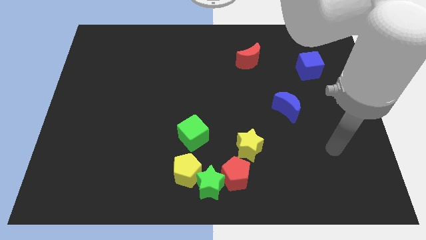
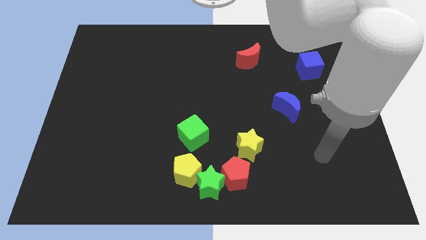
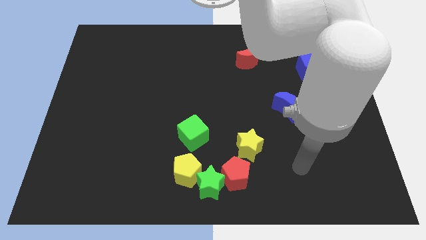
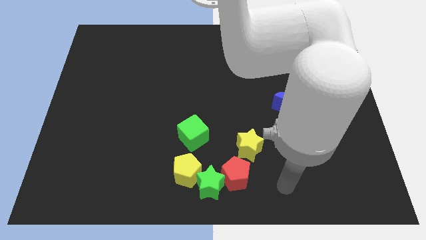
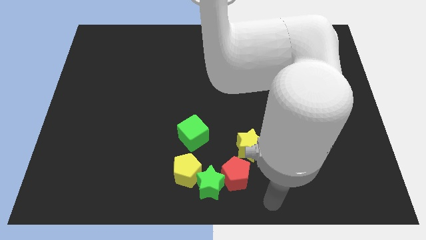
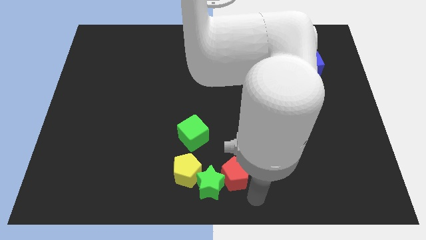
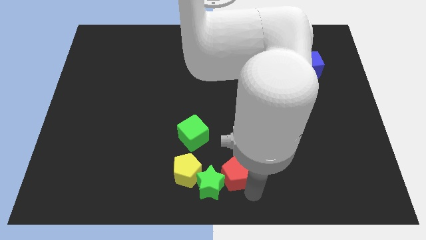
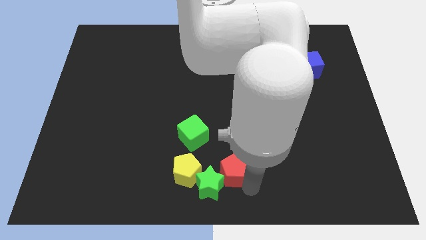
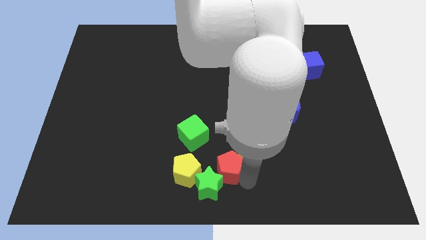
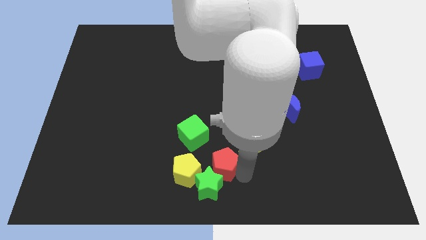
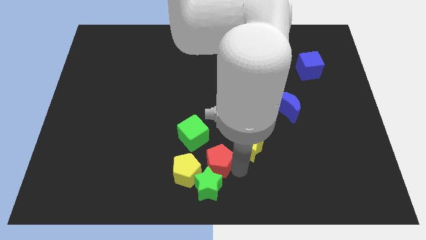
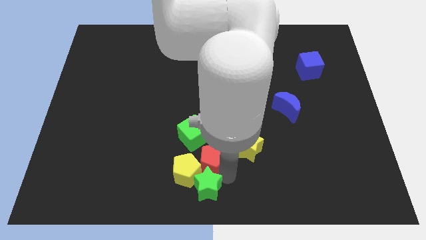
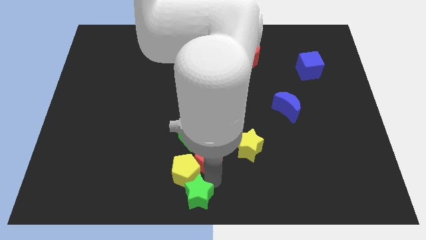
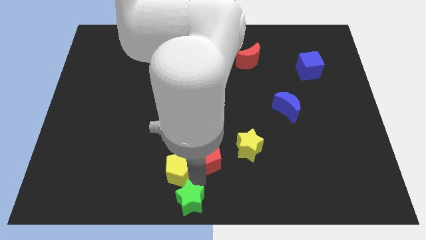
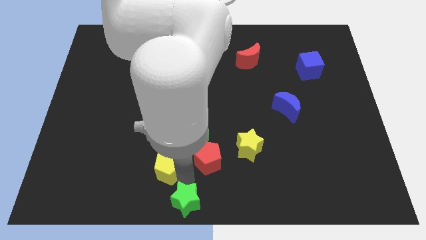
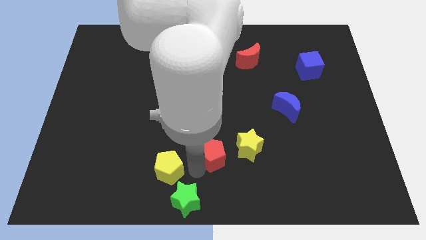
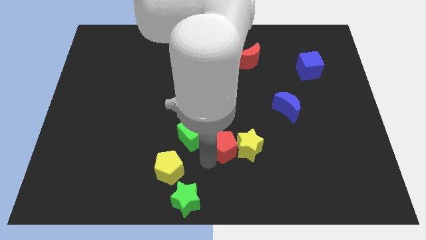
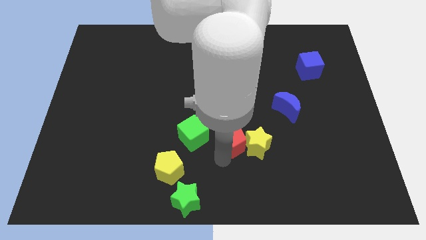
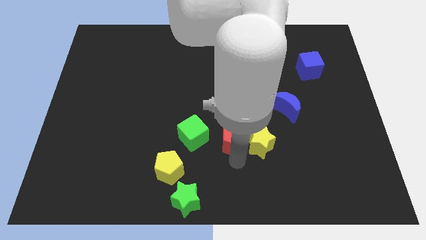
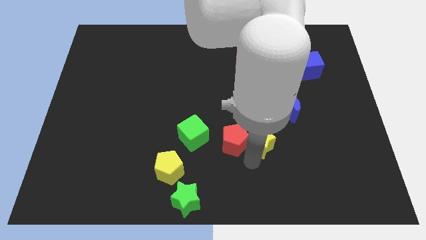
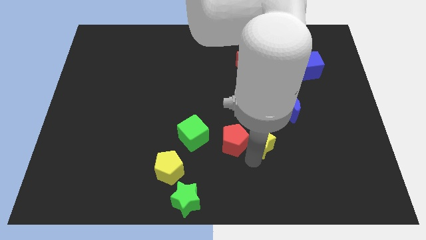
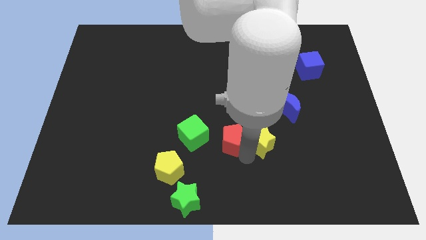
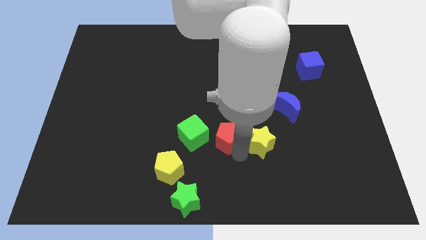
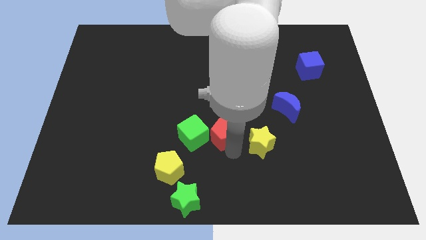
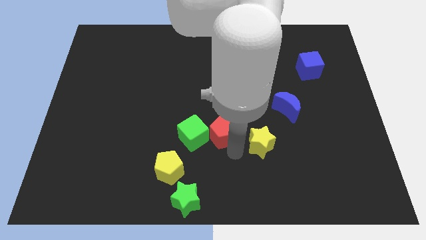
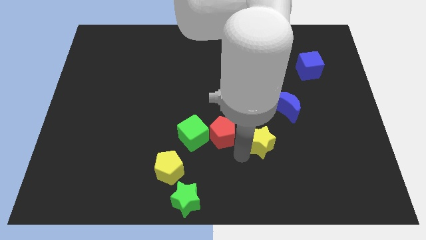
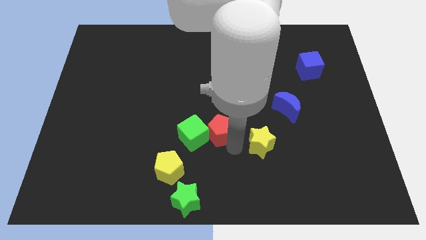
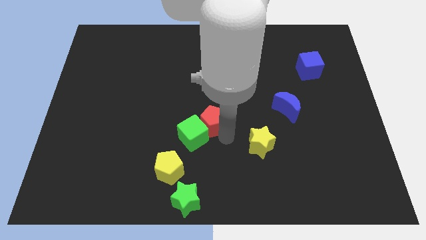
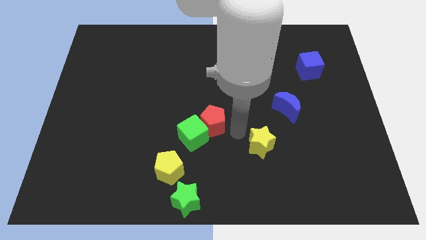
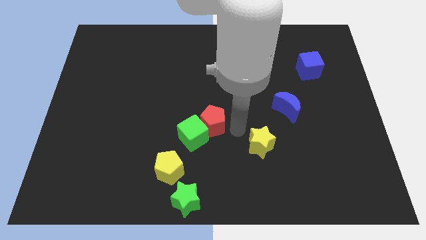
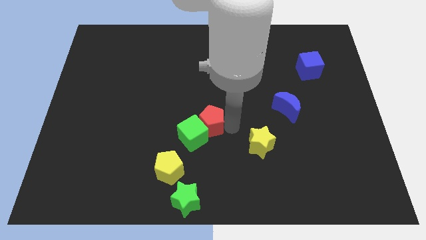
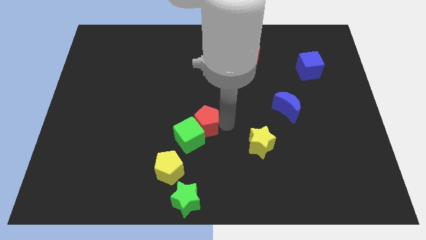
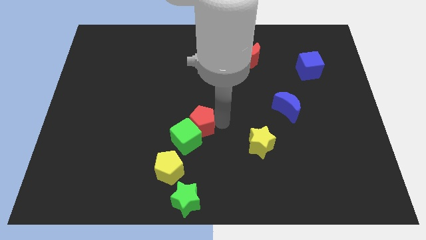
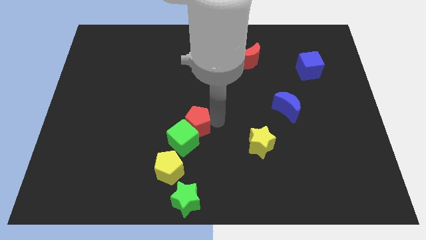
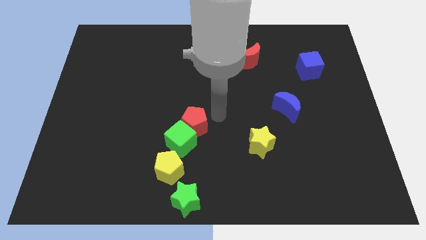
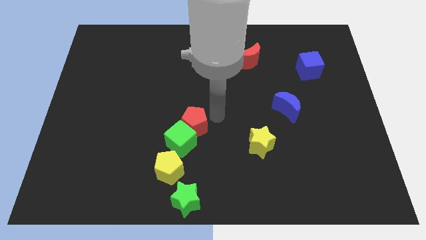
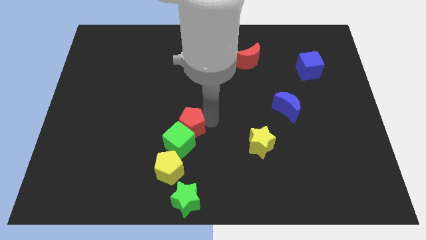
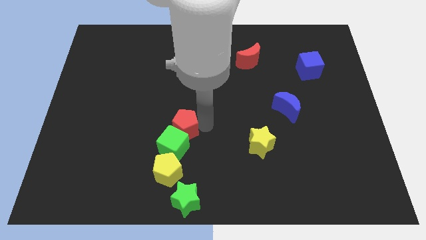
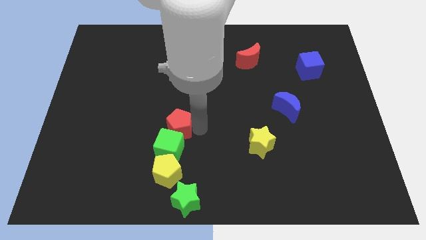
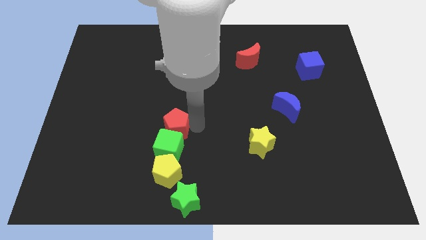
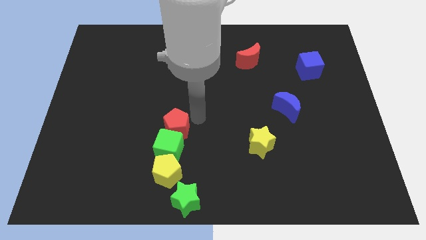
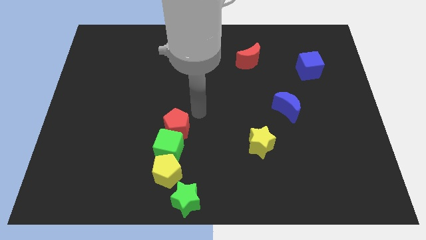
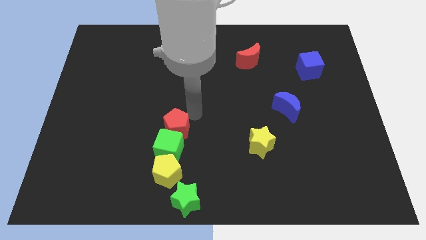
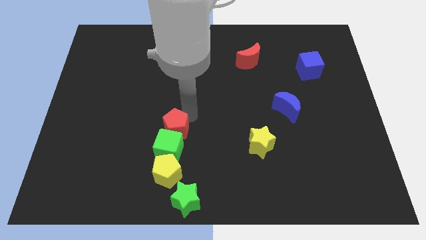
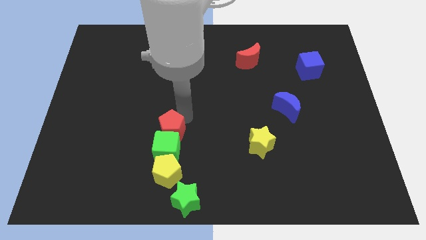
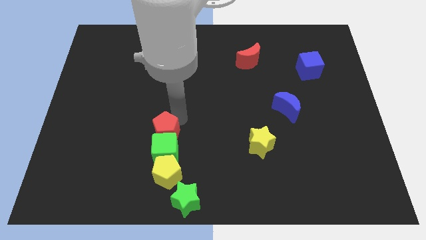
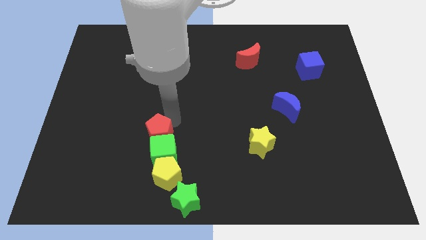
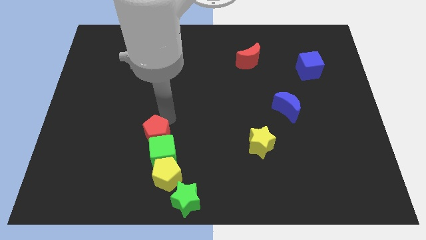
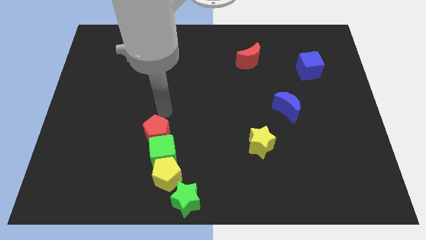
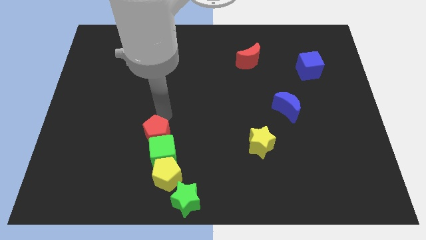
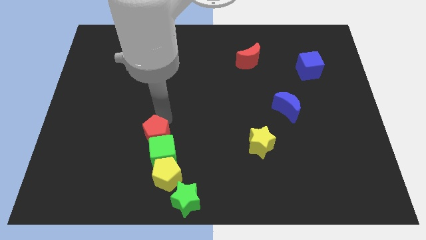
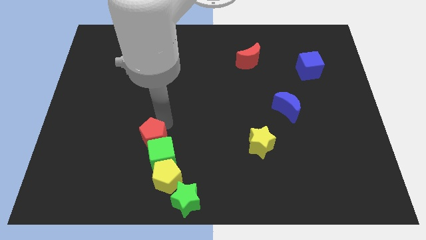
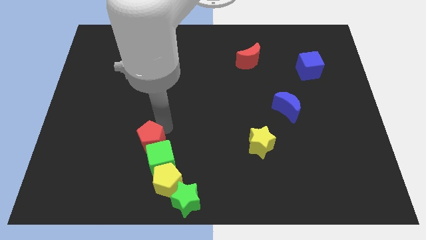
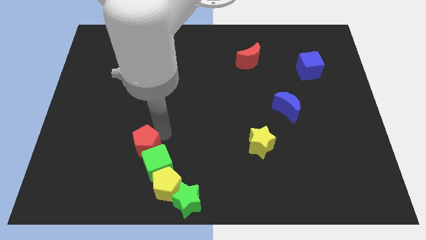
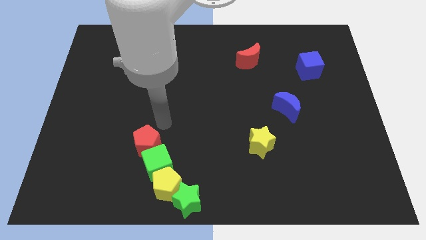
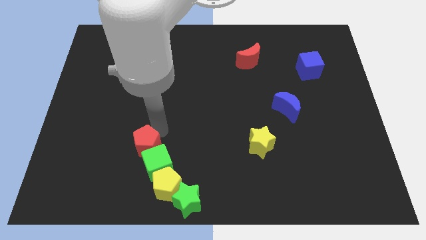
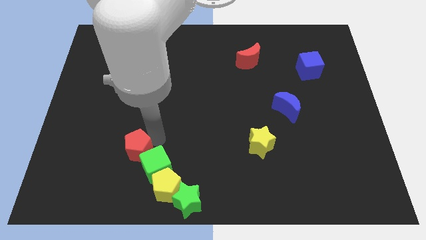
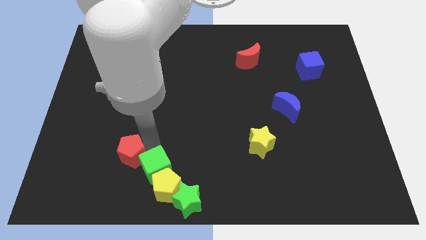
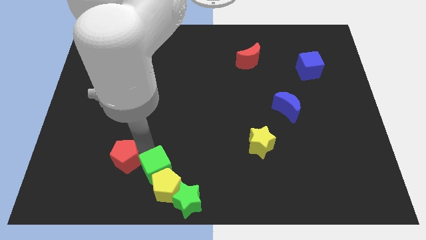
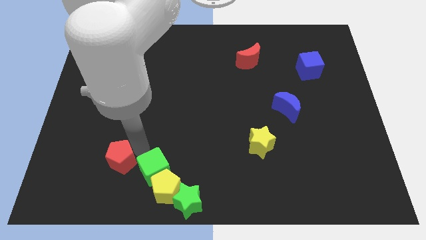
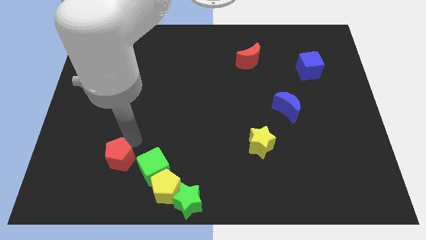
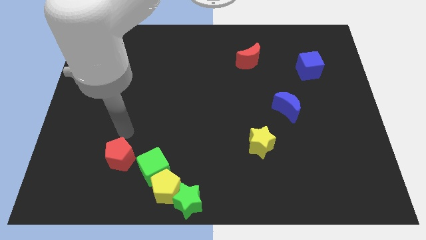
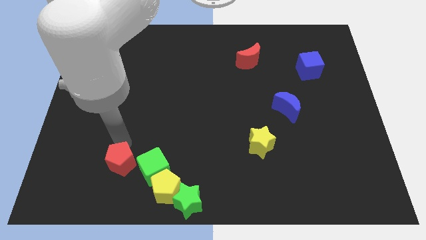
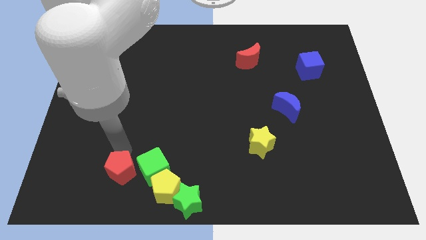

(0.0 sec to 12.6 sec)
slide the red pentagon to the left of the yellow pentagon

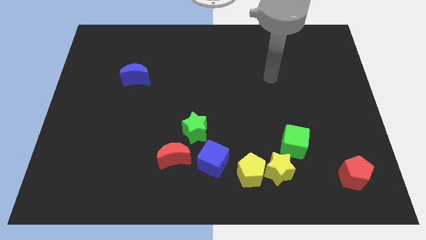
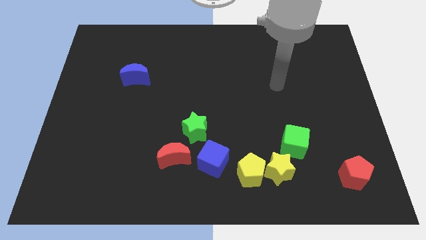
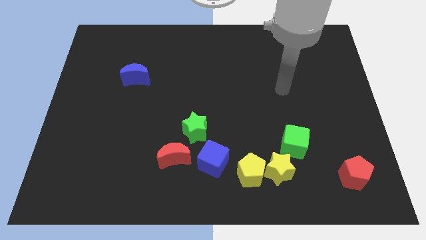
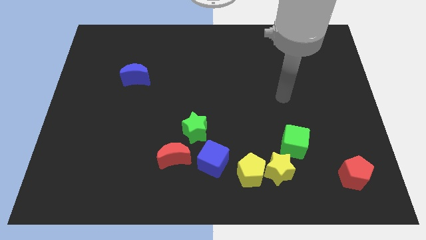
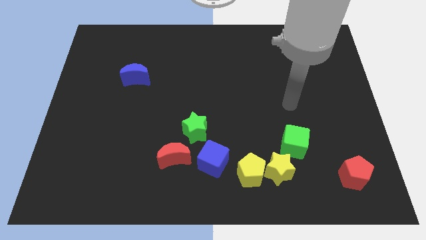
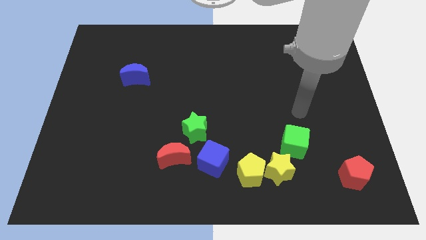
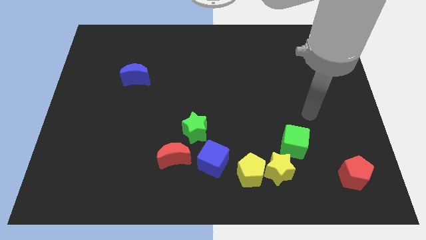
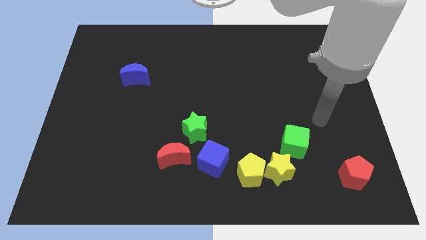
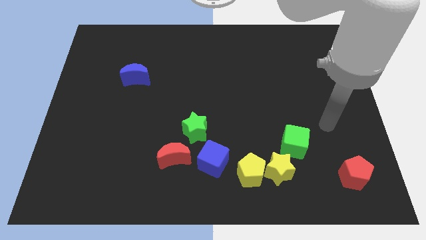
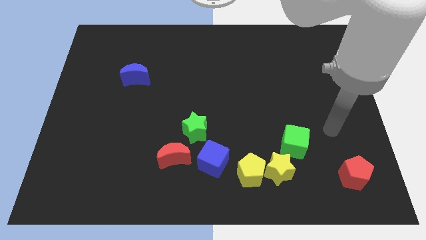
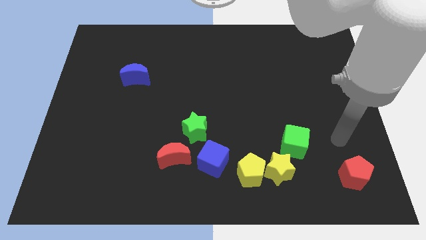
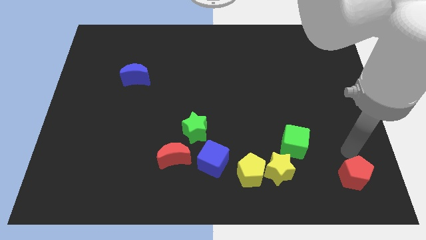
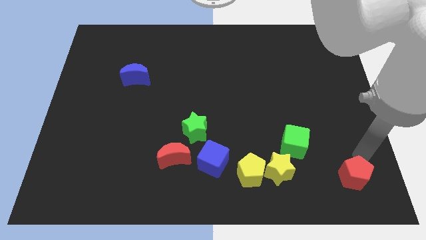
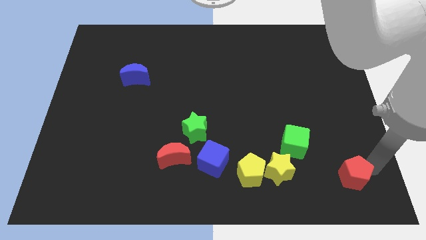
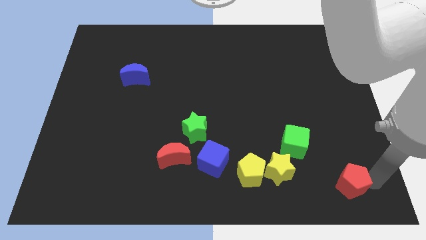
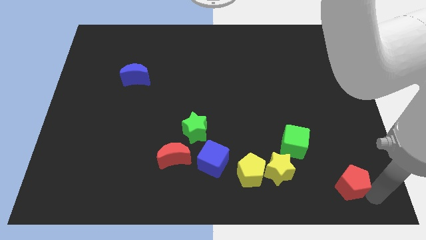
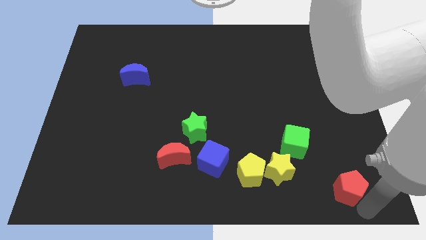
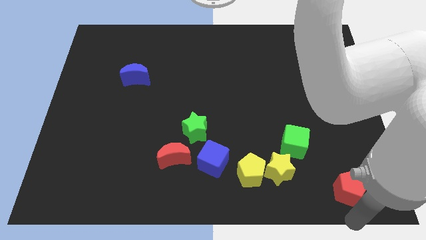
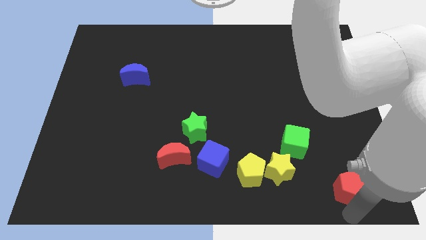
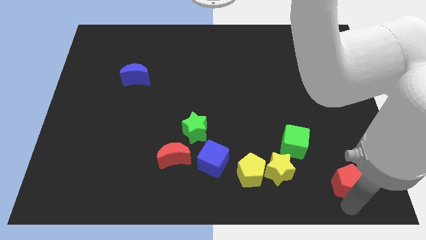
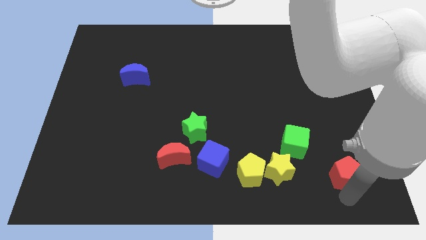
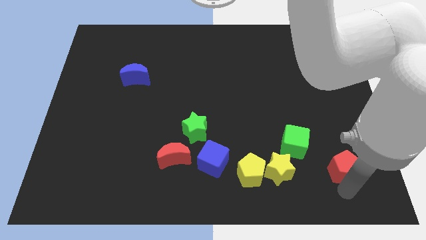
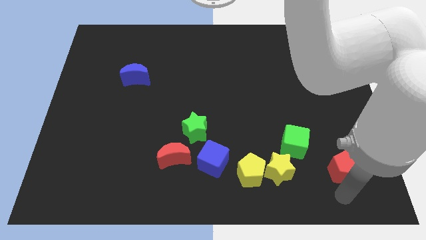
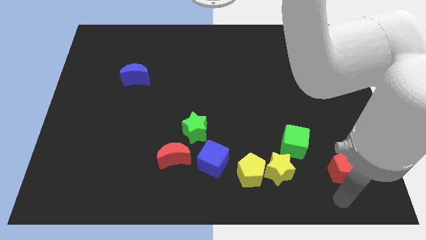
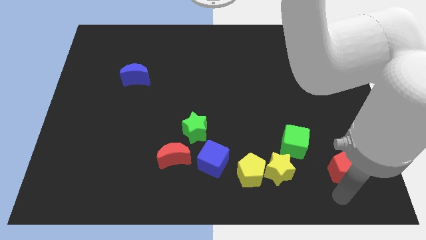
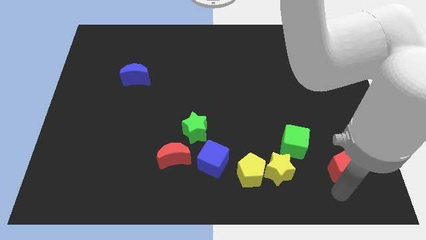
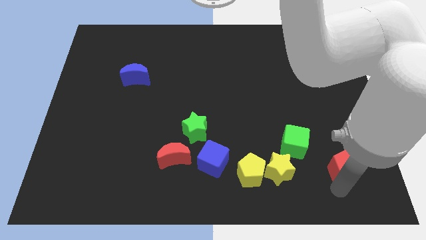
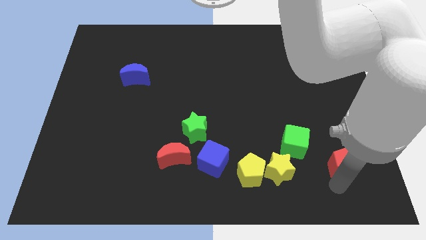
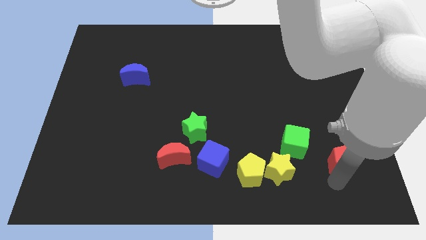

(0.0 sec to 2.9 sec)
slide the red pentagon just right of the green cube

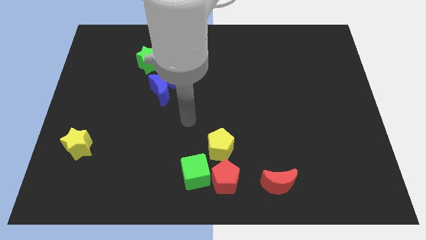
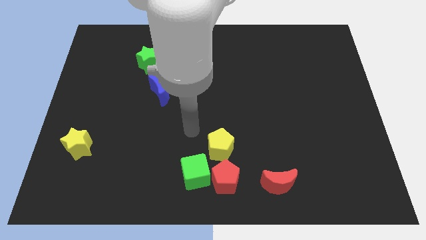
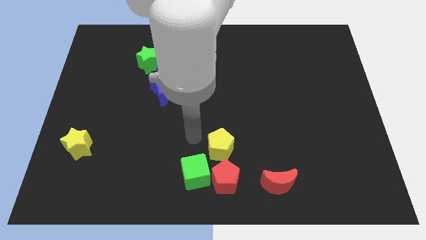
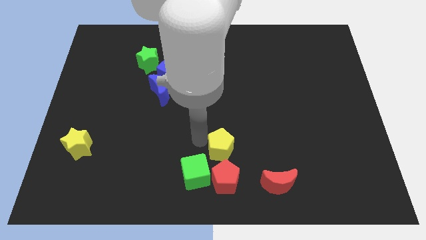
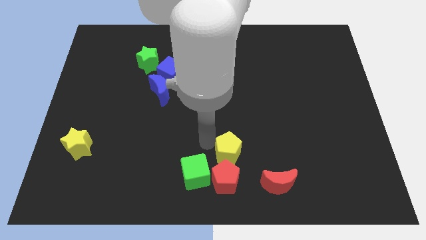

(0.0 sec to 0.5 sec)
push the yellow pentagon diagonally up and to the right of the red pentagon
